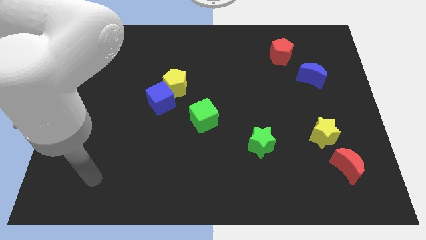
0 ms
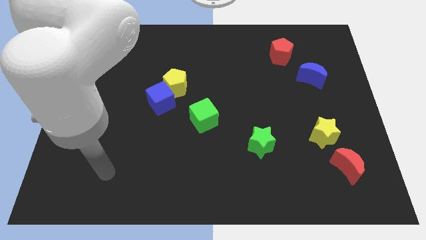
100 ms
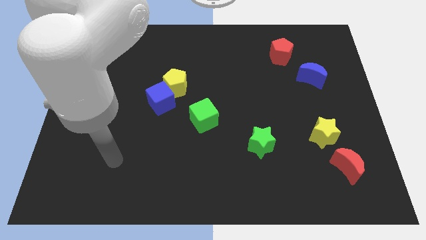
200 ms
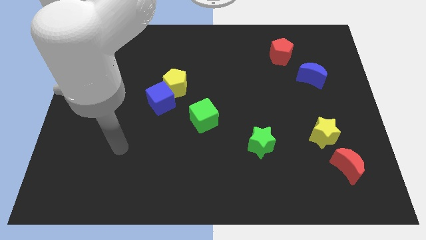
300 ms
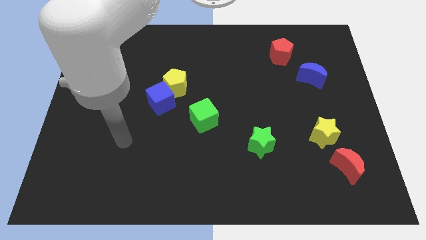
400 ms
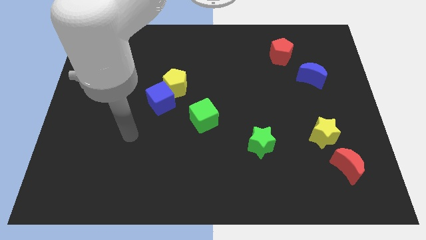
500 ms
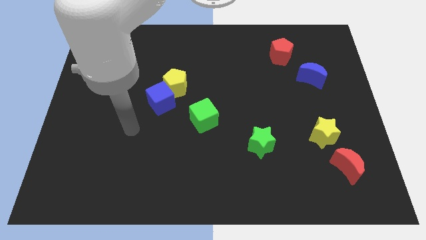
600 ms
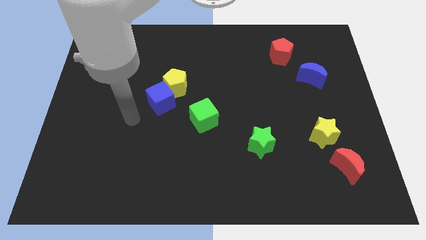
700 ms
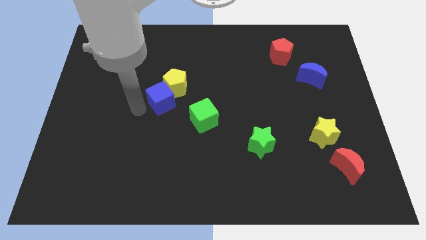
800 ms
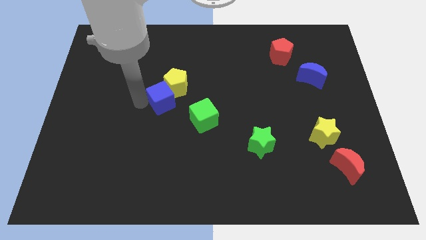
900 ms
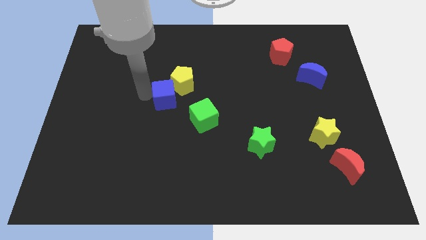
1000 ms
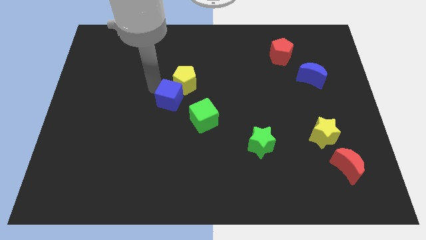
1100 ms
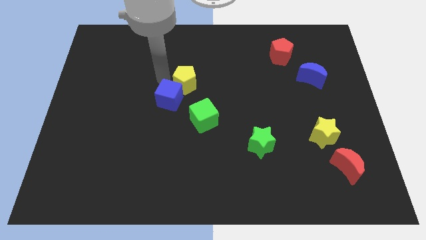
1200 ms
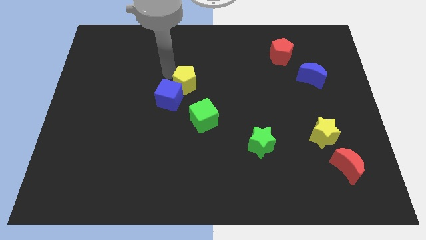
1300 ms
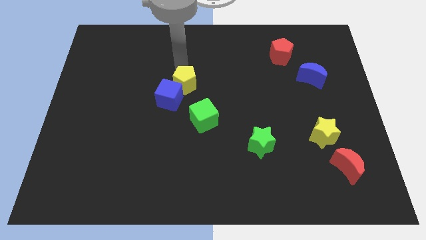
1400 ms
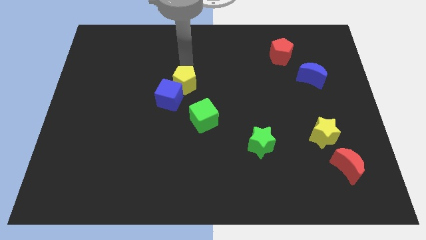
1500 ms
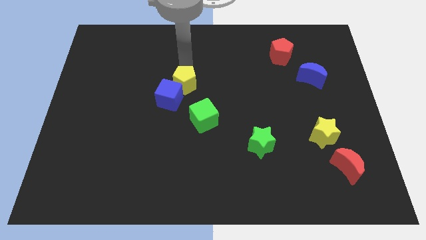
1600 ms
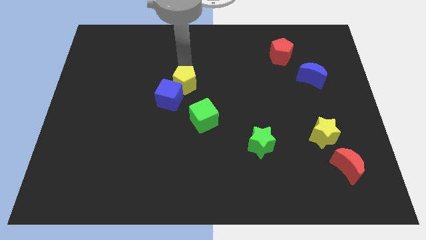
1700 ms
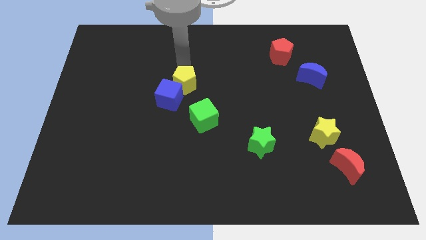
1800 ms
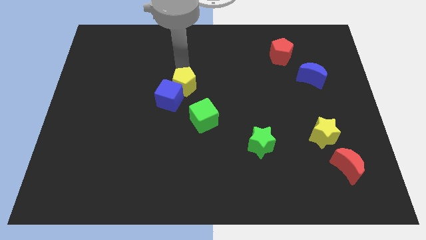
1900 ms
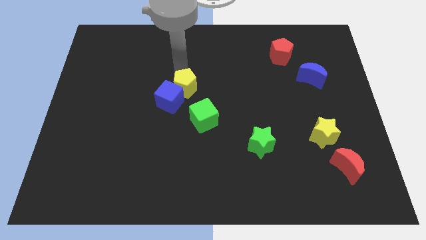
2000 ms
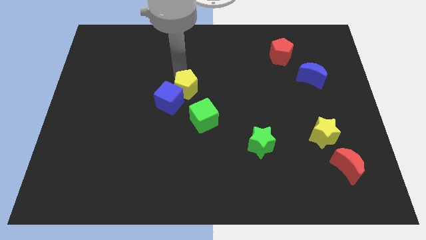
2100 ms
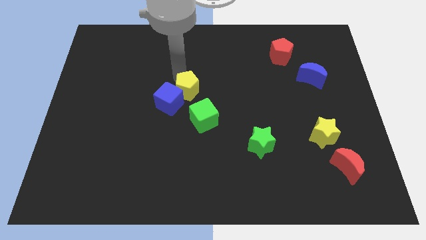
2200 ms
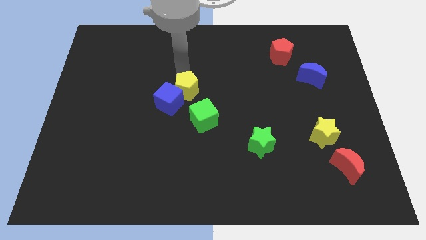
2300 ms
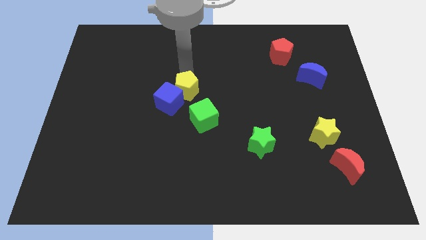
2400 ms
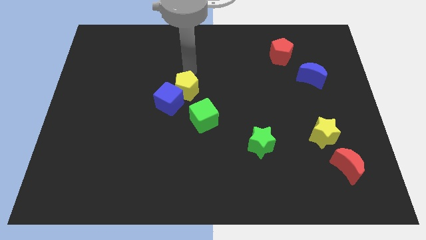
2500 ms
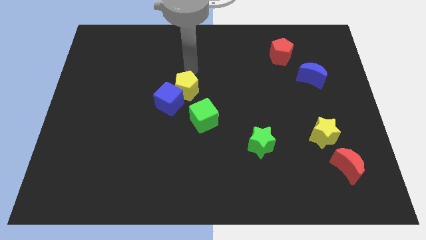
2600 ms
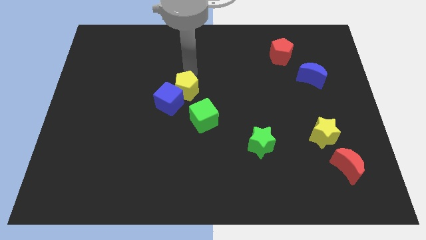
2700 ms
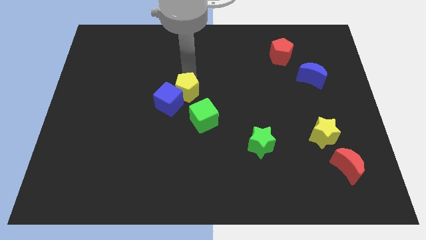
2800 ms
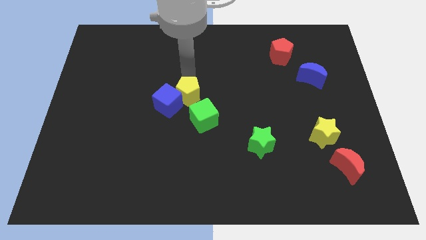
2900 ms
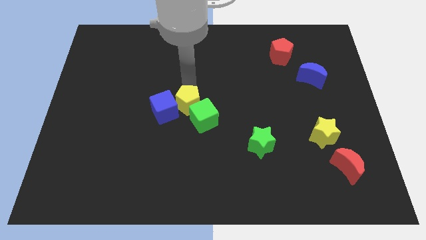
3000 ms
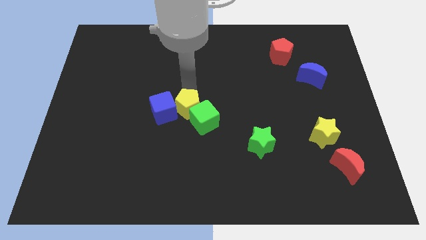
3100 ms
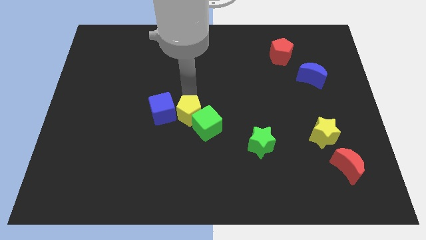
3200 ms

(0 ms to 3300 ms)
slightly push the yellow pentagon downwards

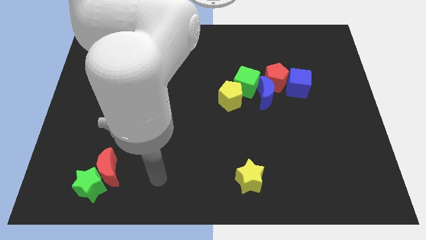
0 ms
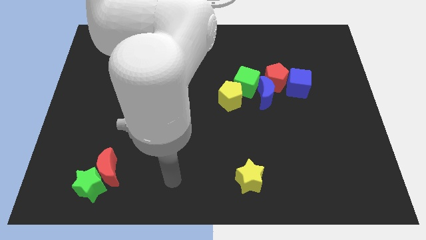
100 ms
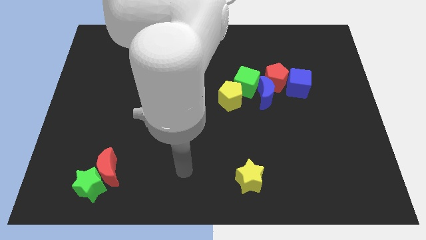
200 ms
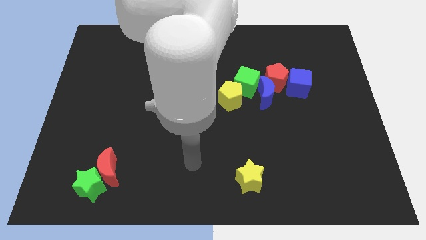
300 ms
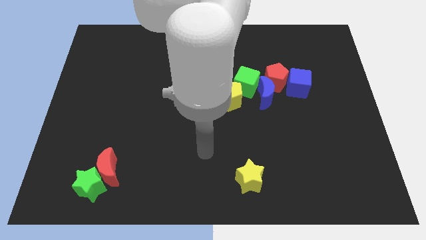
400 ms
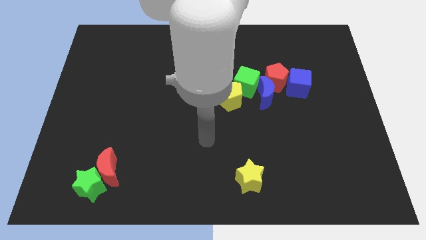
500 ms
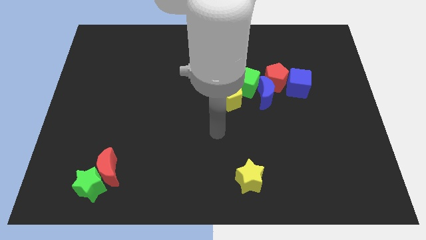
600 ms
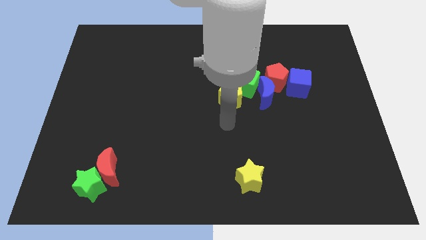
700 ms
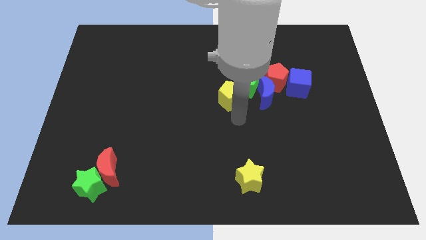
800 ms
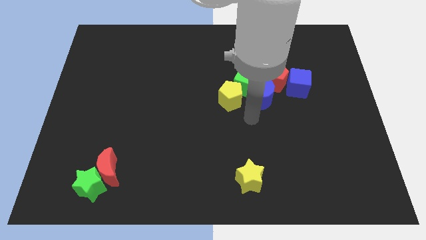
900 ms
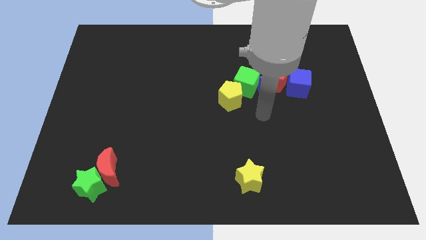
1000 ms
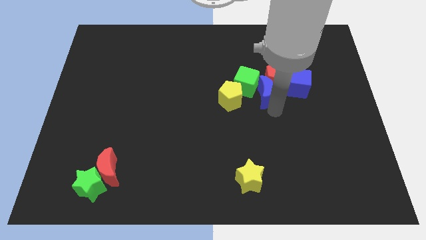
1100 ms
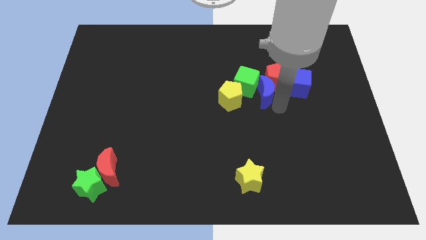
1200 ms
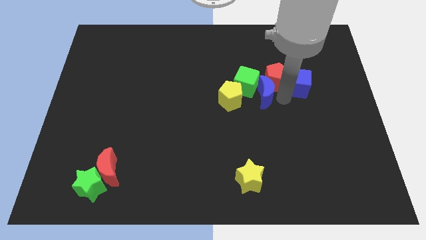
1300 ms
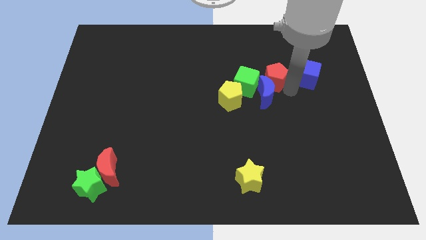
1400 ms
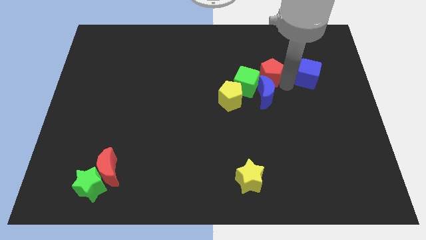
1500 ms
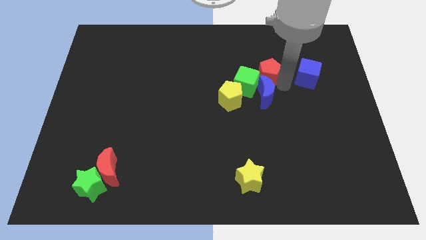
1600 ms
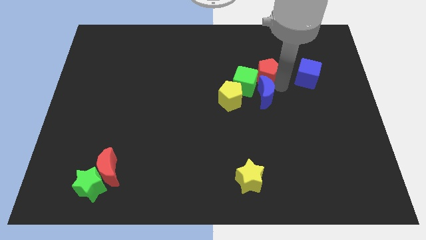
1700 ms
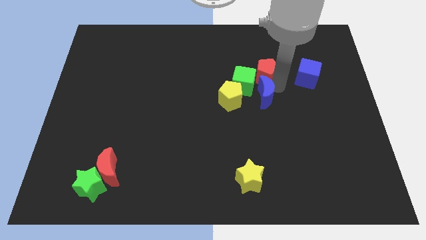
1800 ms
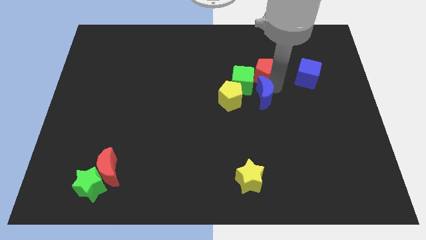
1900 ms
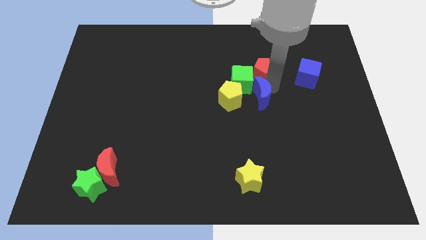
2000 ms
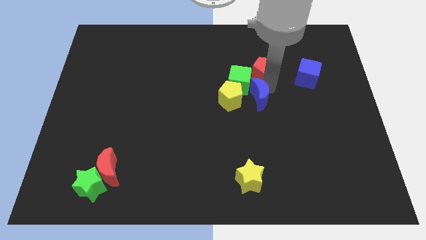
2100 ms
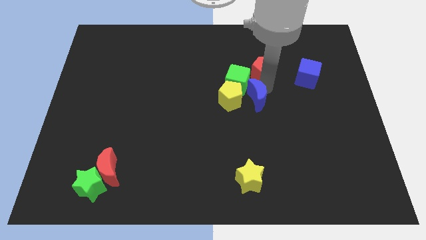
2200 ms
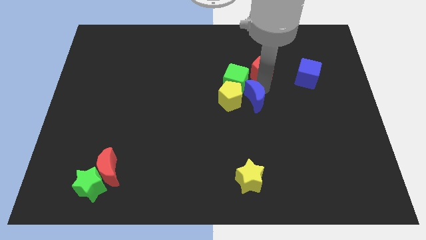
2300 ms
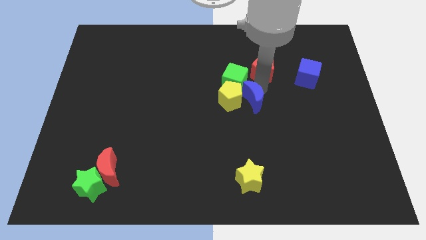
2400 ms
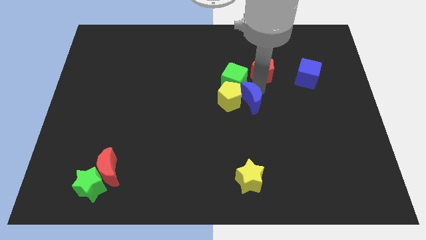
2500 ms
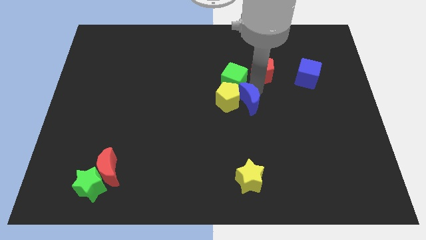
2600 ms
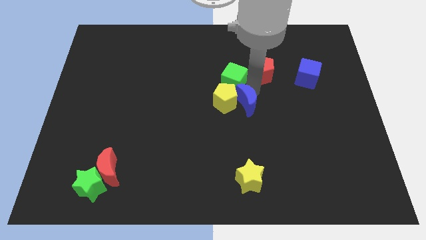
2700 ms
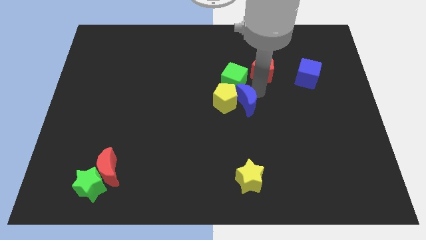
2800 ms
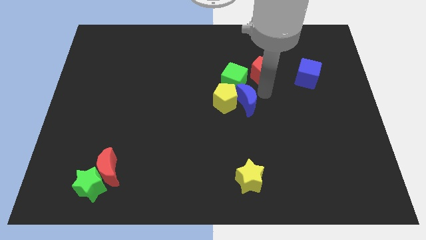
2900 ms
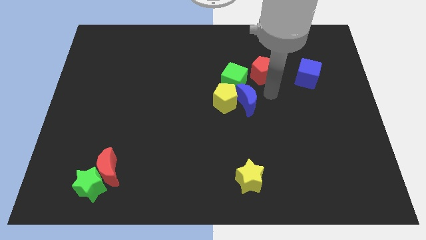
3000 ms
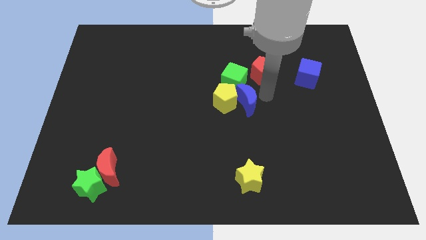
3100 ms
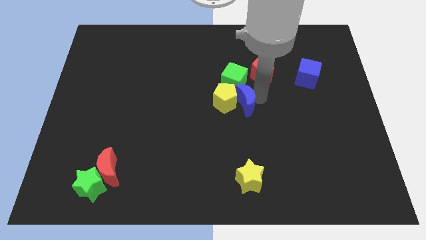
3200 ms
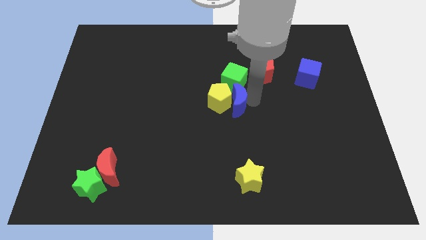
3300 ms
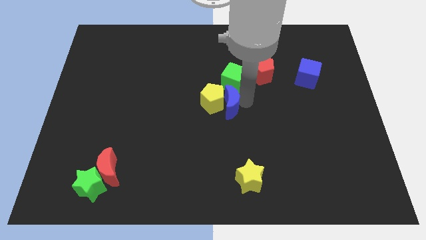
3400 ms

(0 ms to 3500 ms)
slightly push the blue moon to the left

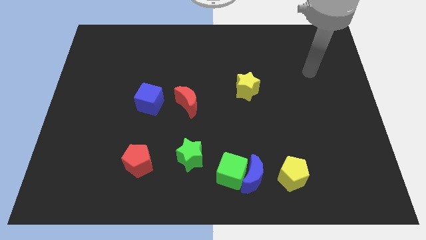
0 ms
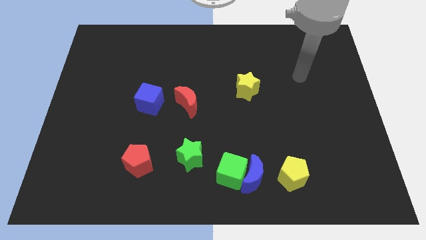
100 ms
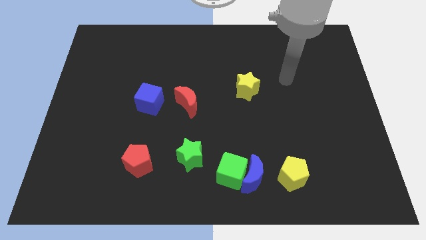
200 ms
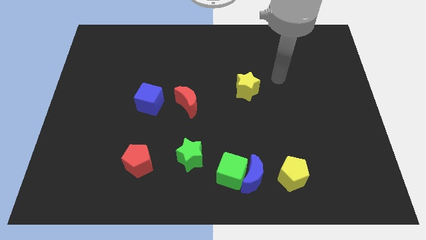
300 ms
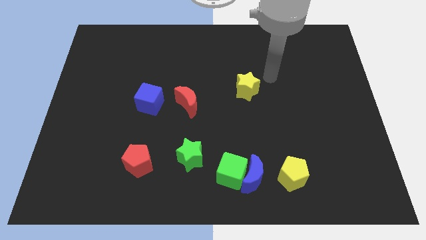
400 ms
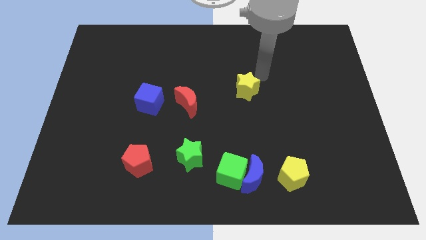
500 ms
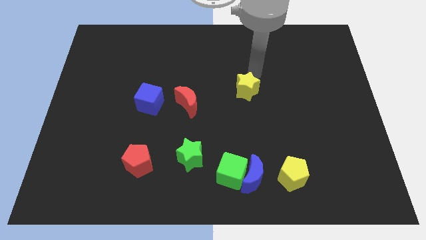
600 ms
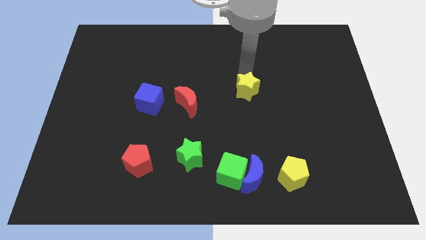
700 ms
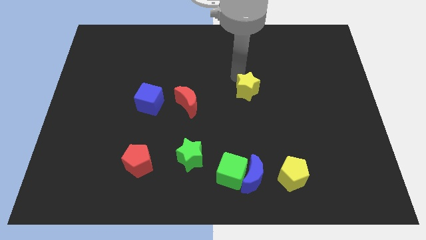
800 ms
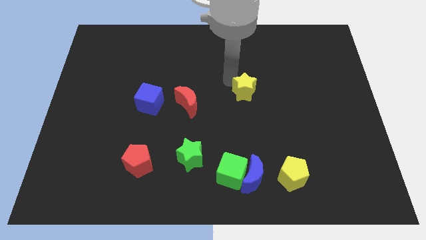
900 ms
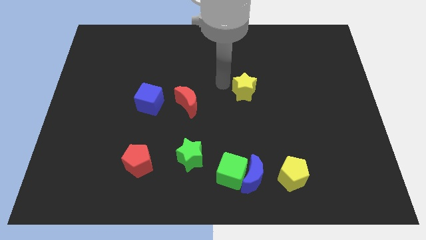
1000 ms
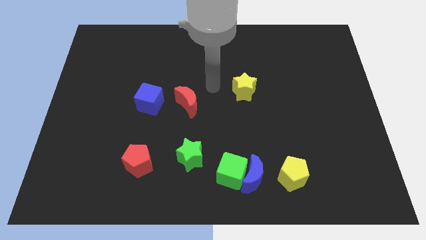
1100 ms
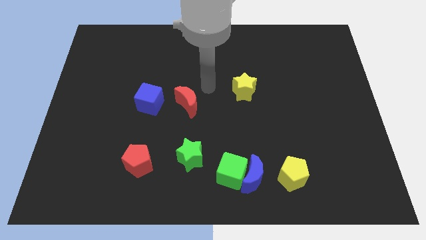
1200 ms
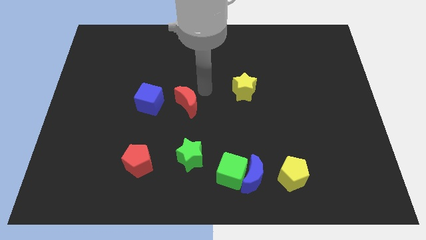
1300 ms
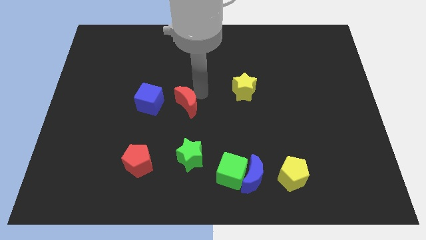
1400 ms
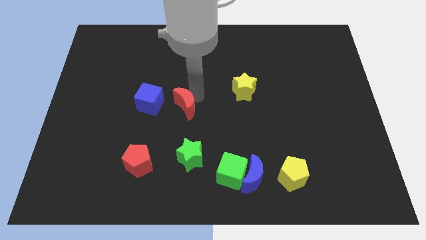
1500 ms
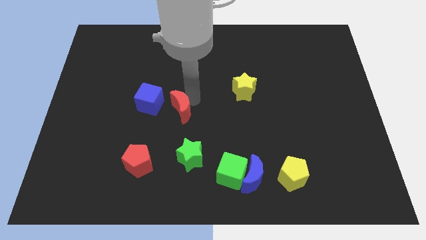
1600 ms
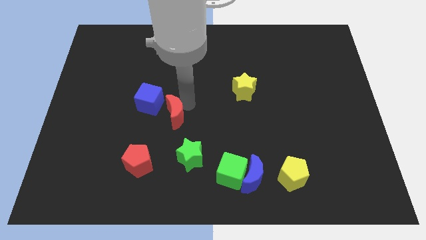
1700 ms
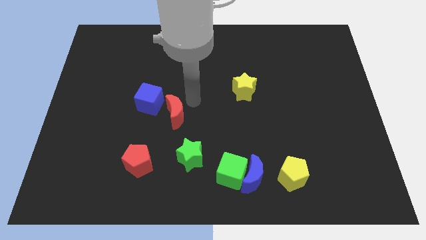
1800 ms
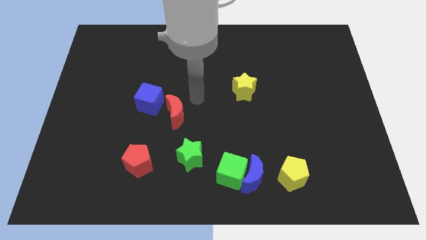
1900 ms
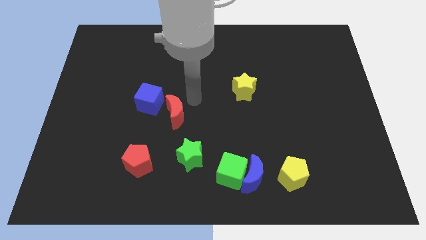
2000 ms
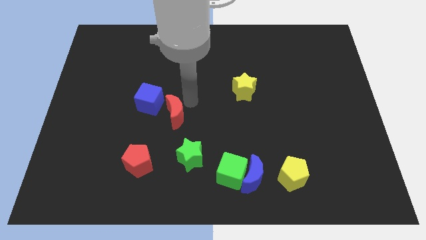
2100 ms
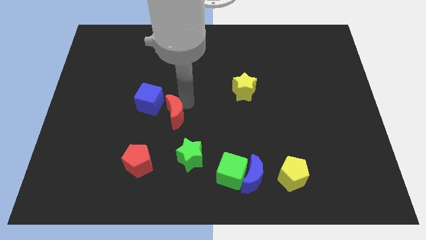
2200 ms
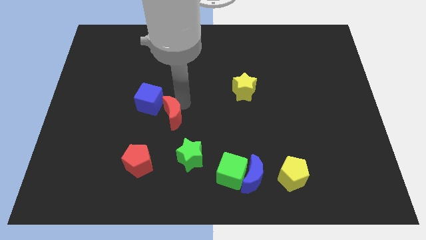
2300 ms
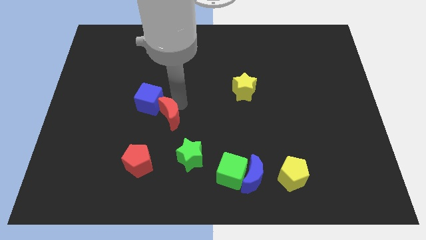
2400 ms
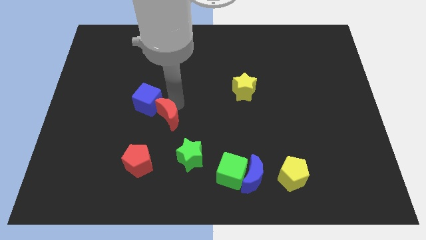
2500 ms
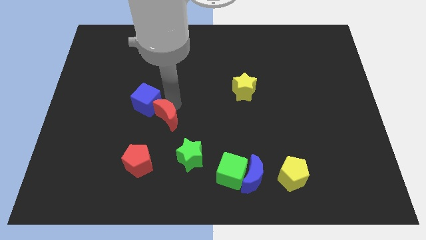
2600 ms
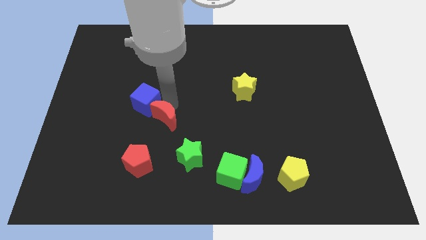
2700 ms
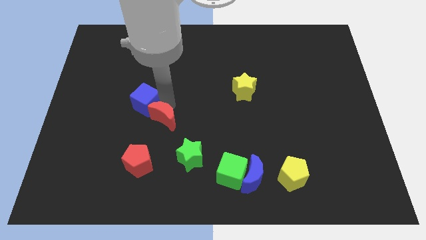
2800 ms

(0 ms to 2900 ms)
slightly push the red moon down and left
